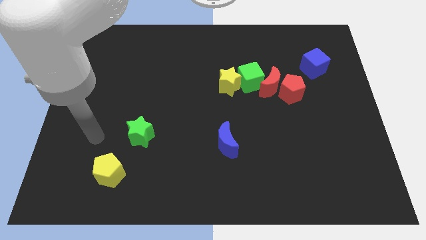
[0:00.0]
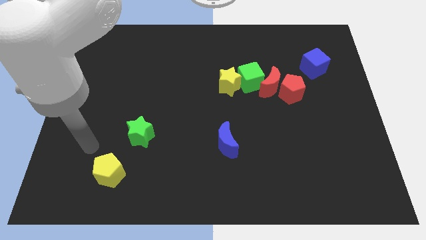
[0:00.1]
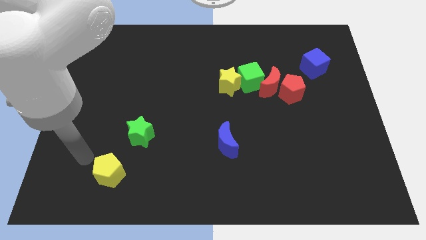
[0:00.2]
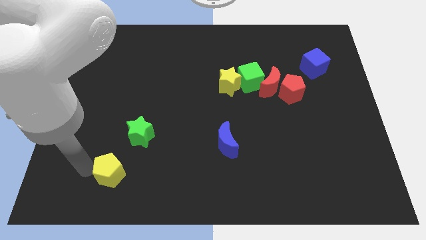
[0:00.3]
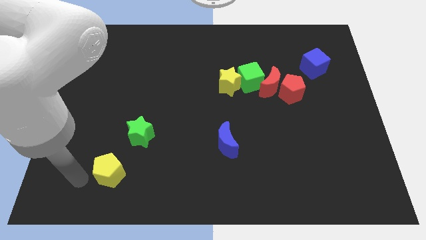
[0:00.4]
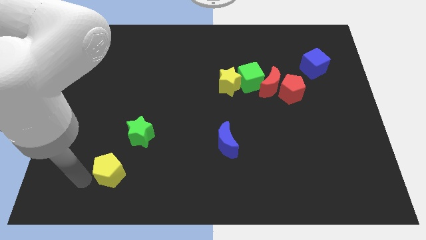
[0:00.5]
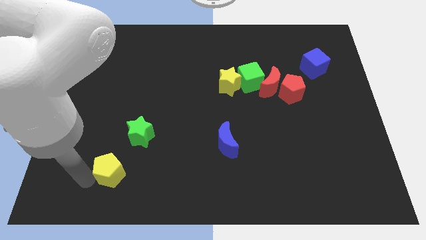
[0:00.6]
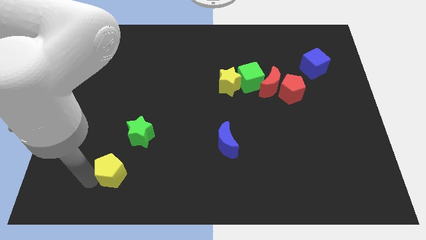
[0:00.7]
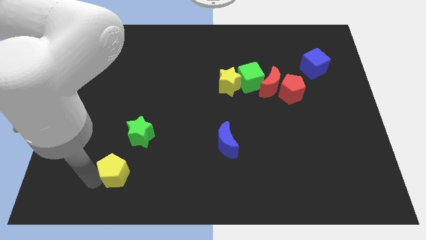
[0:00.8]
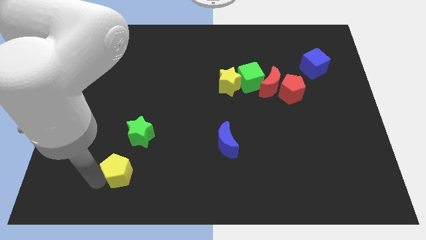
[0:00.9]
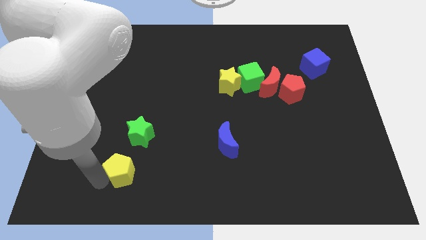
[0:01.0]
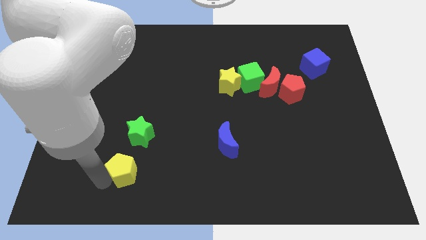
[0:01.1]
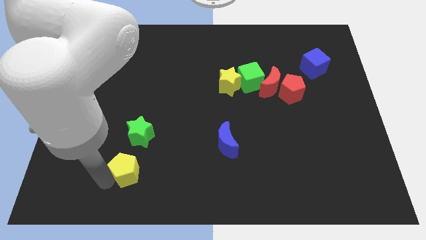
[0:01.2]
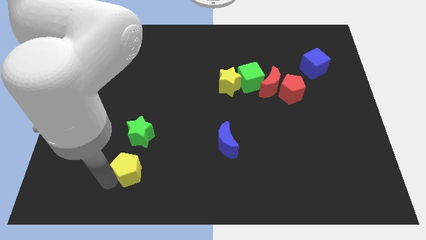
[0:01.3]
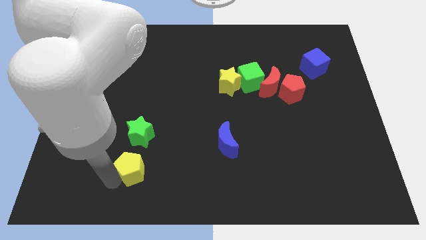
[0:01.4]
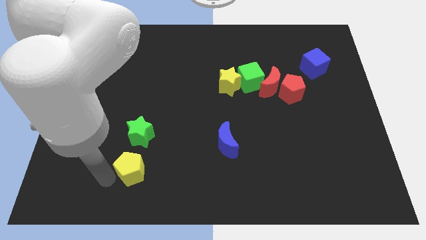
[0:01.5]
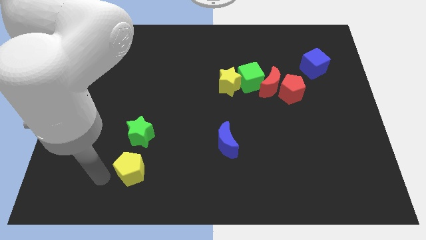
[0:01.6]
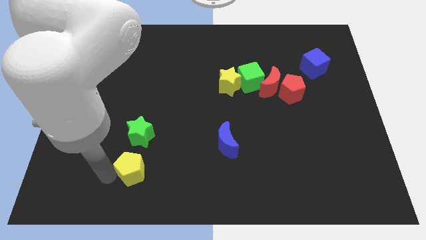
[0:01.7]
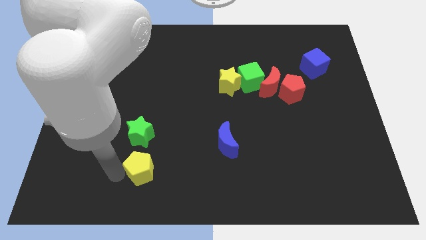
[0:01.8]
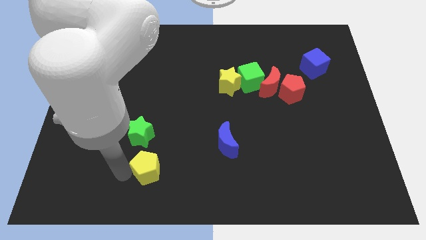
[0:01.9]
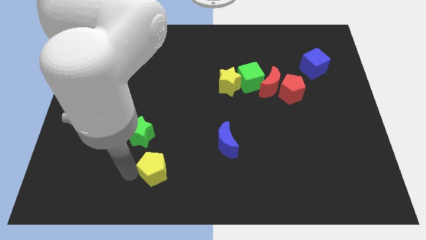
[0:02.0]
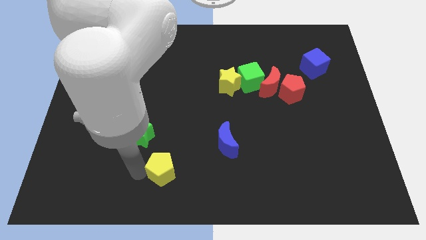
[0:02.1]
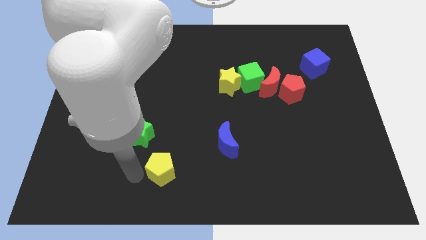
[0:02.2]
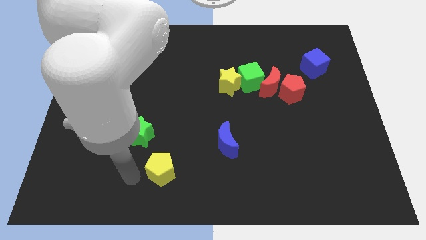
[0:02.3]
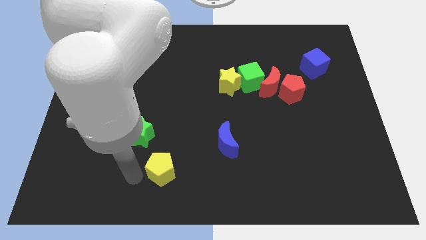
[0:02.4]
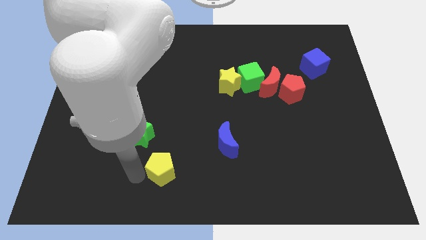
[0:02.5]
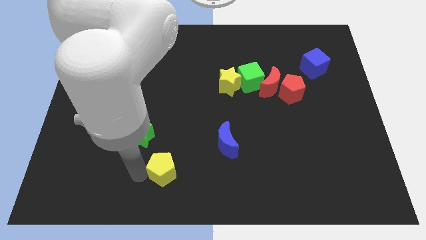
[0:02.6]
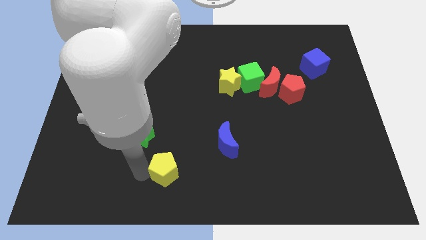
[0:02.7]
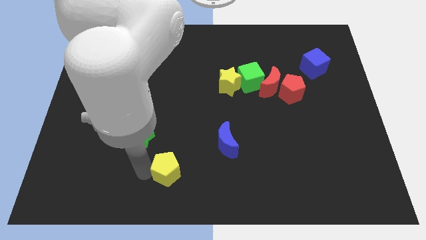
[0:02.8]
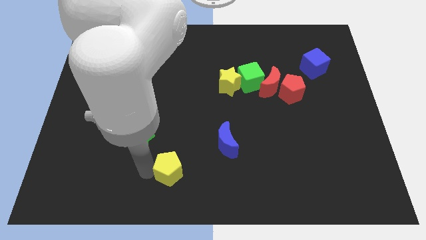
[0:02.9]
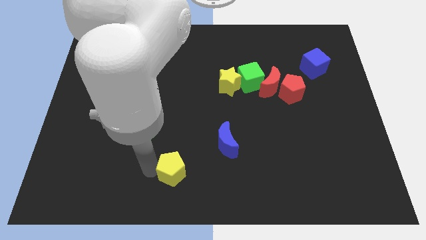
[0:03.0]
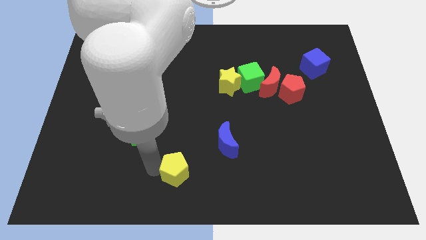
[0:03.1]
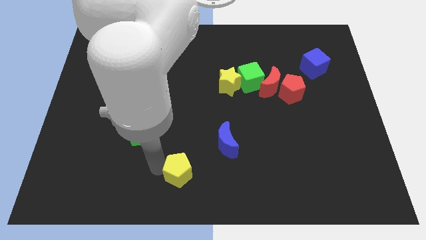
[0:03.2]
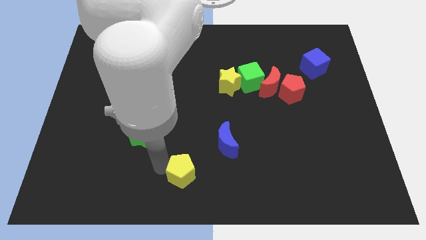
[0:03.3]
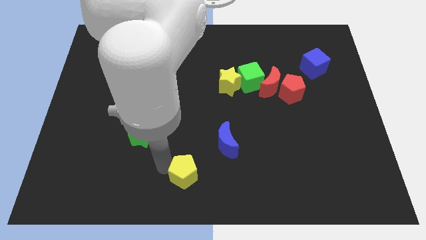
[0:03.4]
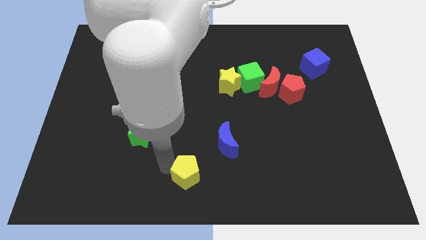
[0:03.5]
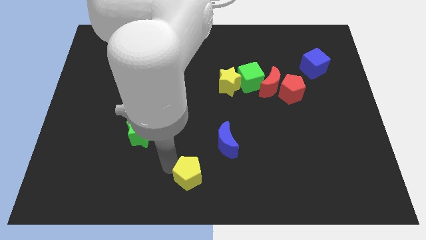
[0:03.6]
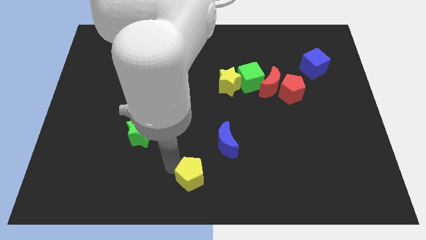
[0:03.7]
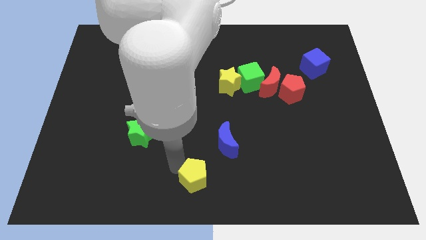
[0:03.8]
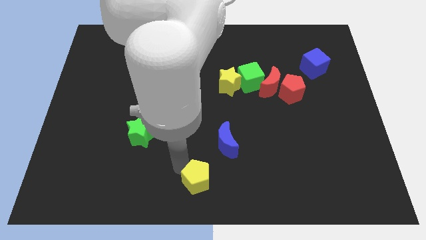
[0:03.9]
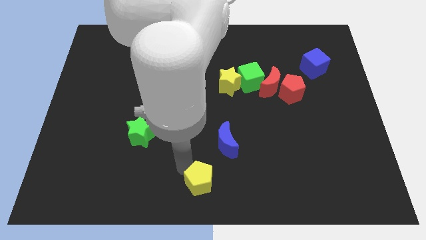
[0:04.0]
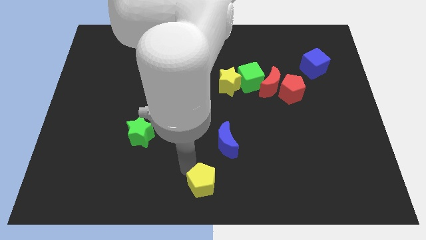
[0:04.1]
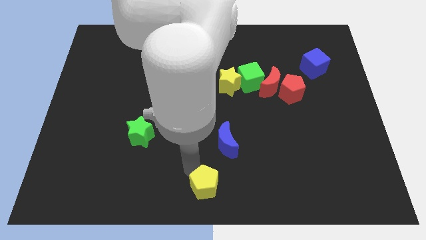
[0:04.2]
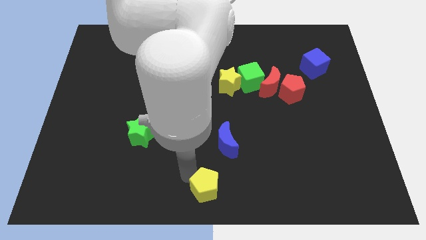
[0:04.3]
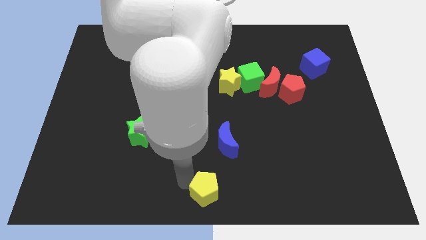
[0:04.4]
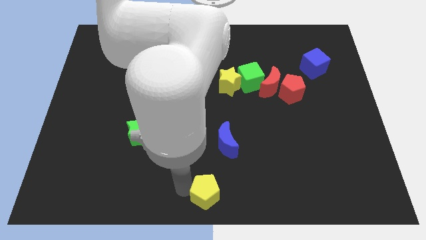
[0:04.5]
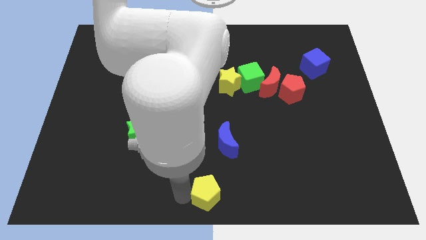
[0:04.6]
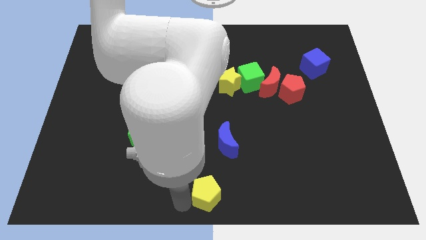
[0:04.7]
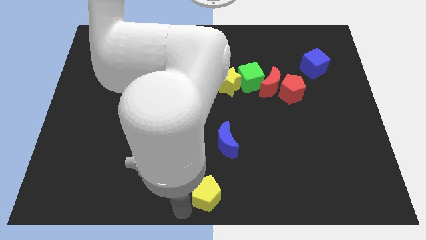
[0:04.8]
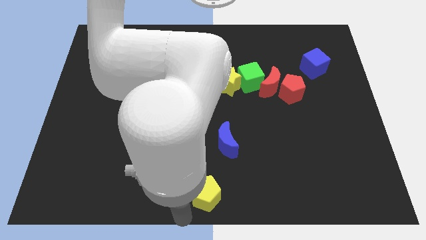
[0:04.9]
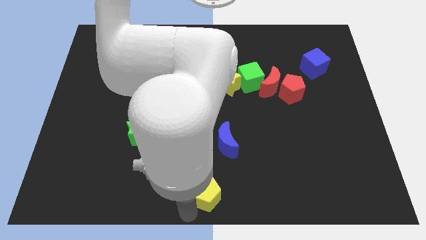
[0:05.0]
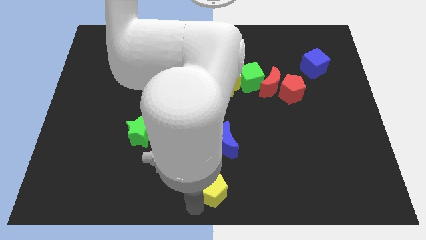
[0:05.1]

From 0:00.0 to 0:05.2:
slide the yellow pentagon right

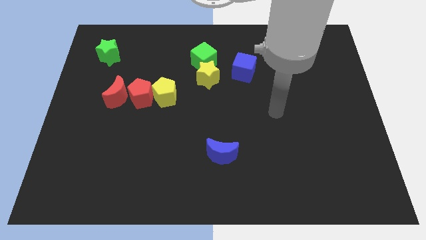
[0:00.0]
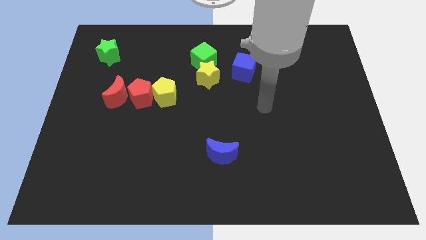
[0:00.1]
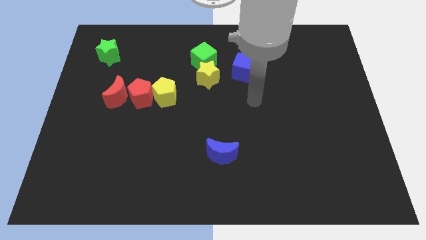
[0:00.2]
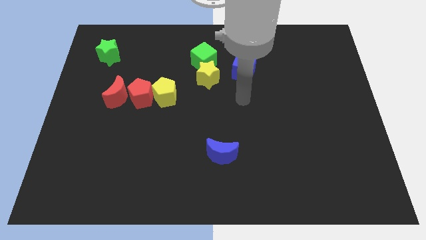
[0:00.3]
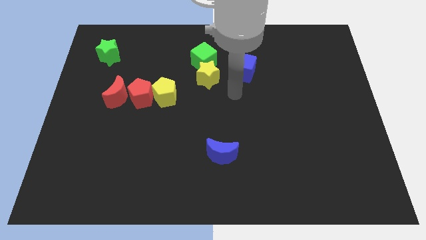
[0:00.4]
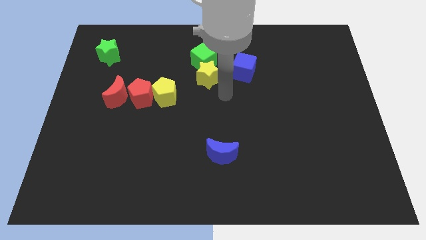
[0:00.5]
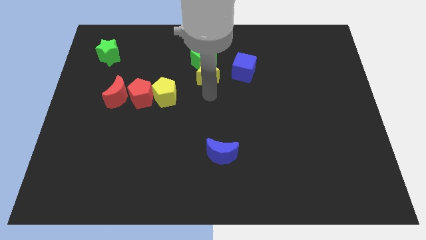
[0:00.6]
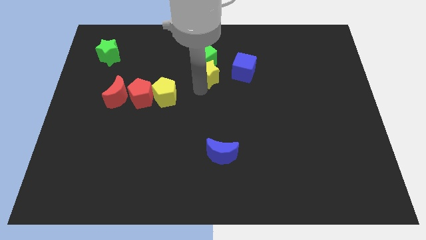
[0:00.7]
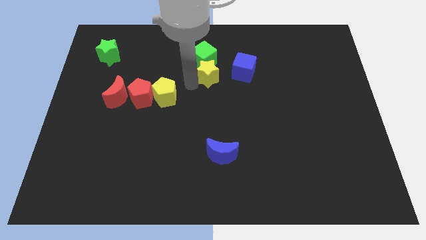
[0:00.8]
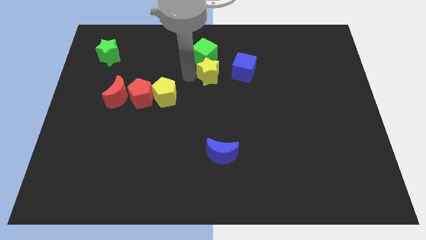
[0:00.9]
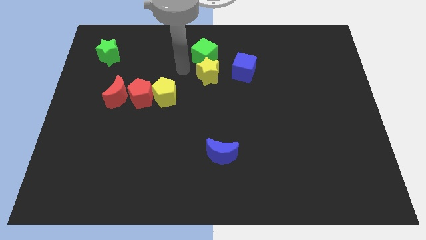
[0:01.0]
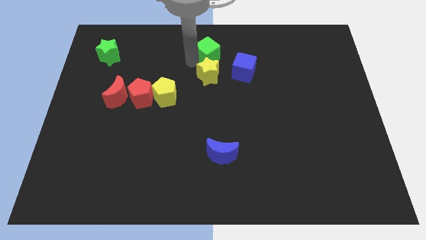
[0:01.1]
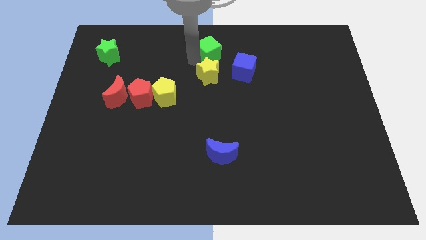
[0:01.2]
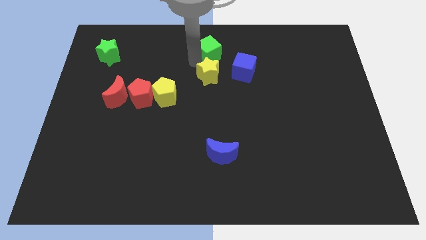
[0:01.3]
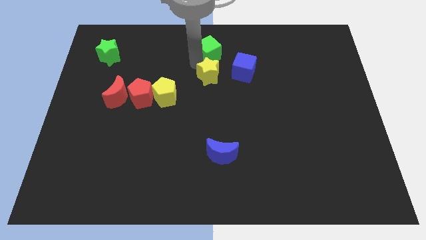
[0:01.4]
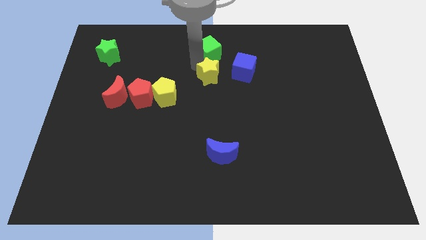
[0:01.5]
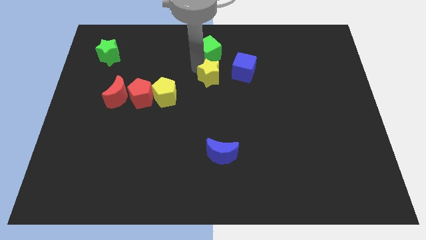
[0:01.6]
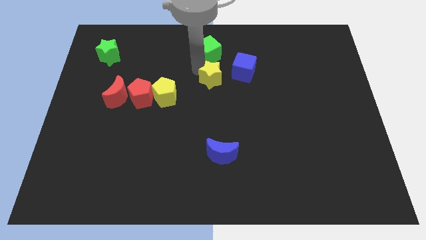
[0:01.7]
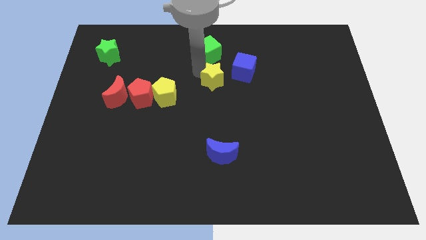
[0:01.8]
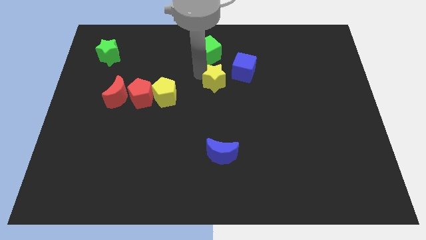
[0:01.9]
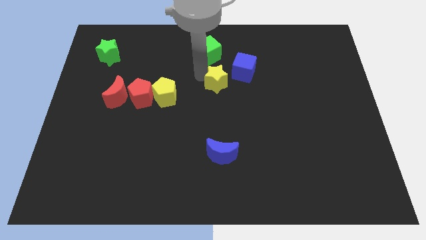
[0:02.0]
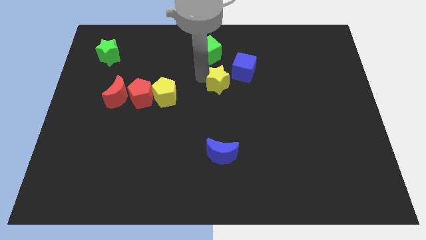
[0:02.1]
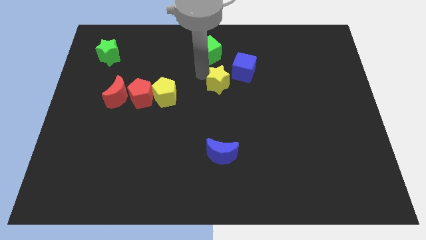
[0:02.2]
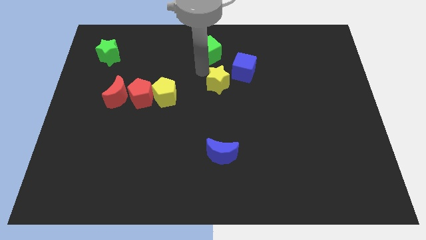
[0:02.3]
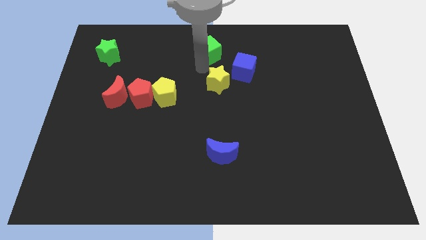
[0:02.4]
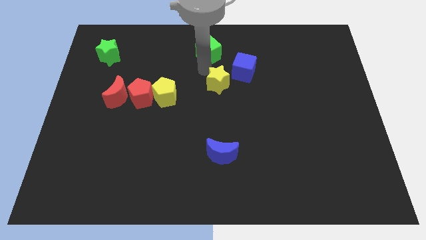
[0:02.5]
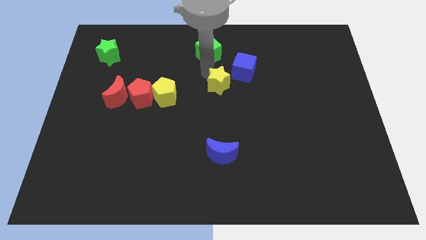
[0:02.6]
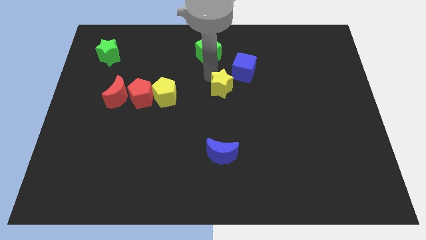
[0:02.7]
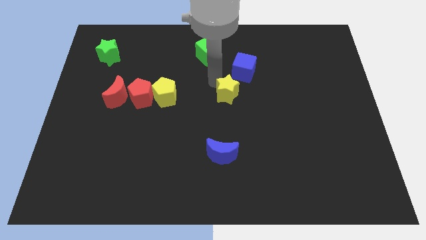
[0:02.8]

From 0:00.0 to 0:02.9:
slightly slide the yellow star diagonally down and to the right
